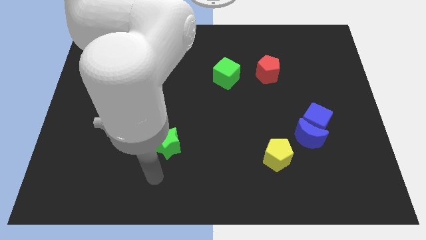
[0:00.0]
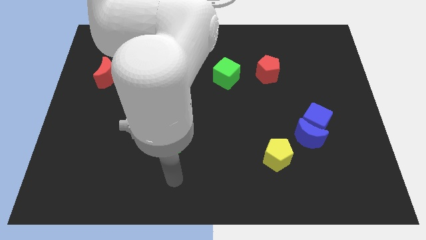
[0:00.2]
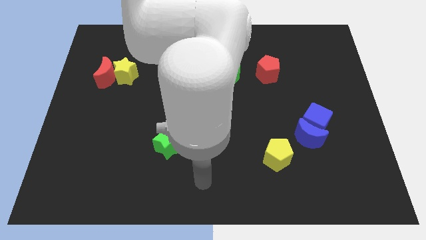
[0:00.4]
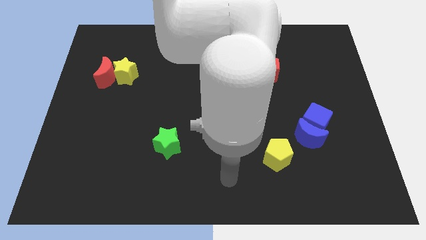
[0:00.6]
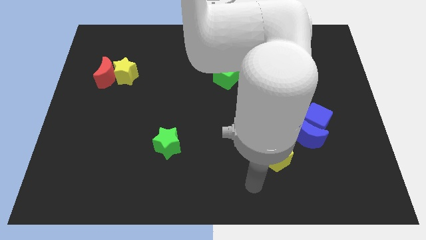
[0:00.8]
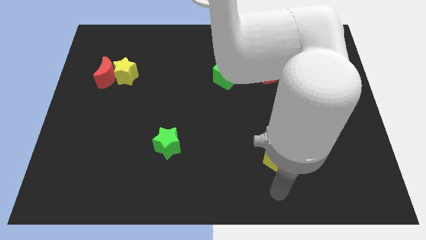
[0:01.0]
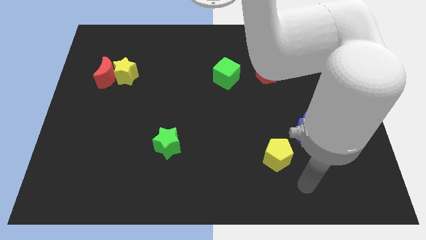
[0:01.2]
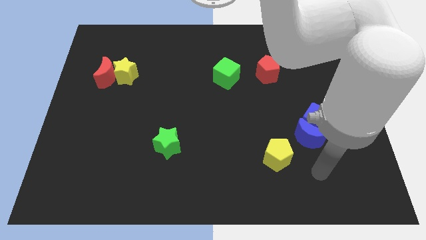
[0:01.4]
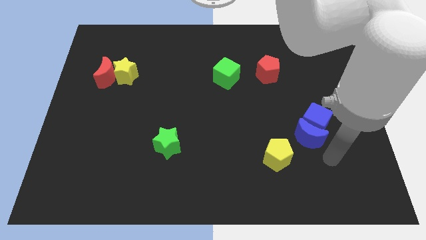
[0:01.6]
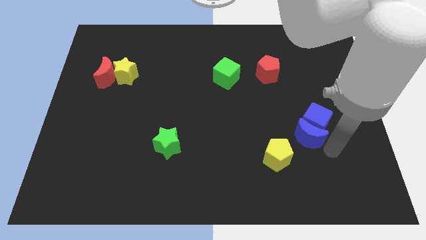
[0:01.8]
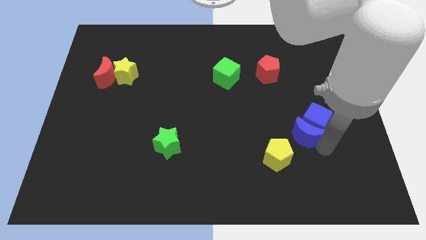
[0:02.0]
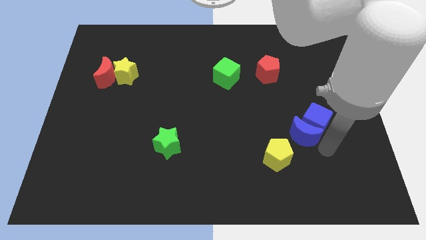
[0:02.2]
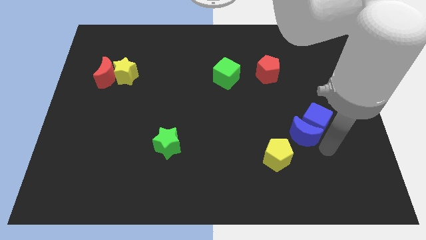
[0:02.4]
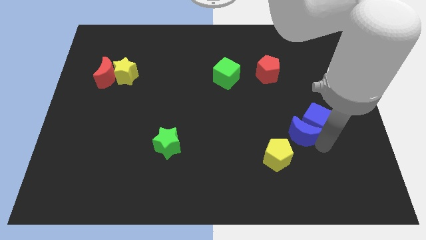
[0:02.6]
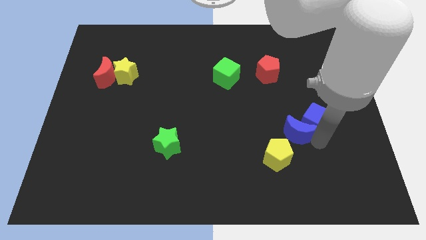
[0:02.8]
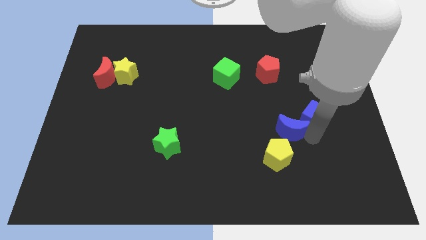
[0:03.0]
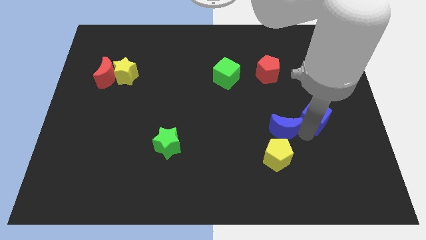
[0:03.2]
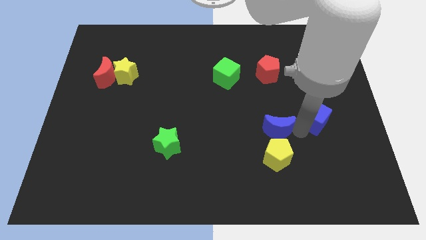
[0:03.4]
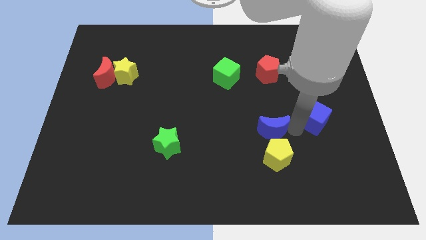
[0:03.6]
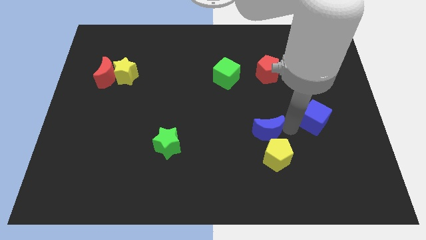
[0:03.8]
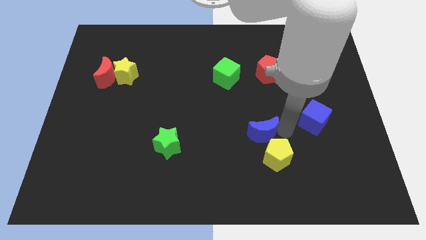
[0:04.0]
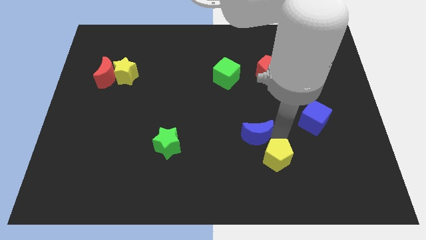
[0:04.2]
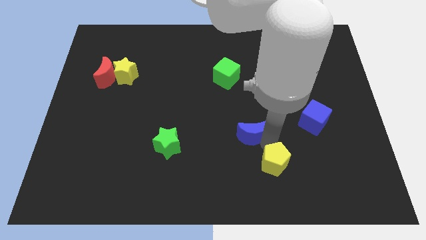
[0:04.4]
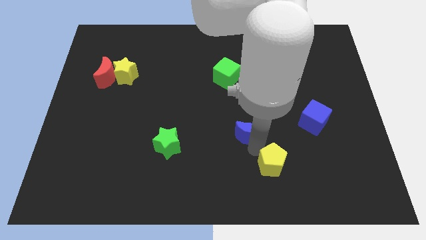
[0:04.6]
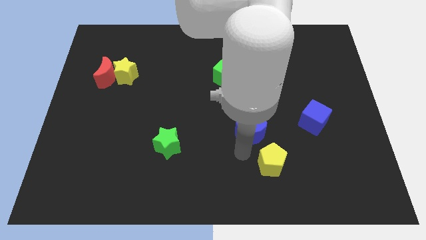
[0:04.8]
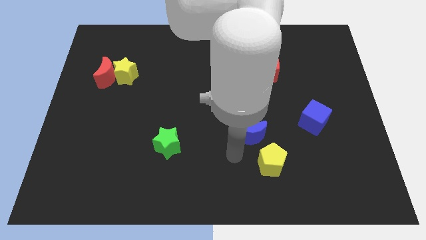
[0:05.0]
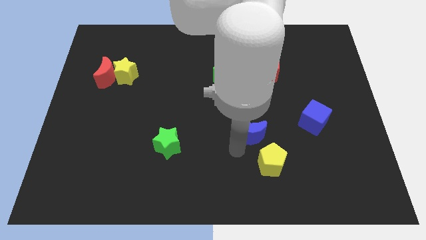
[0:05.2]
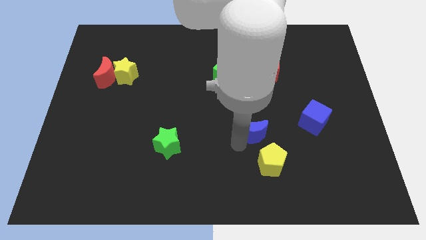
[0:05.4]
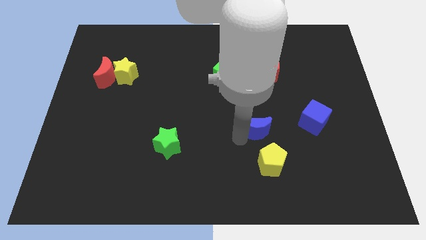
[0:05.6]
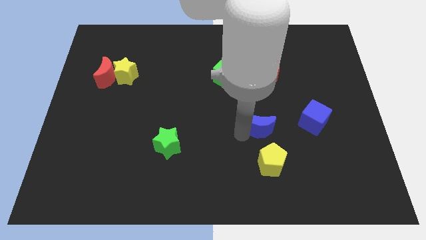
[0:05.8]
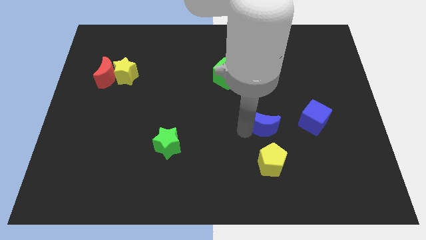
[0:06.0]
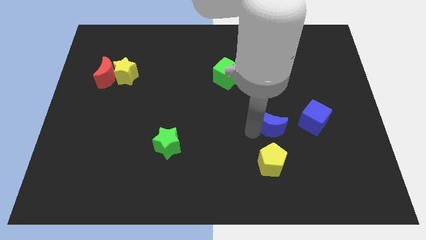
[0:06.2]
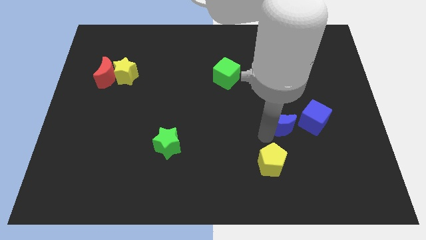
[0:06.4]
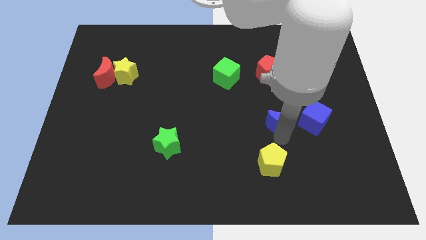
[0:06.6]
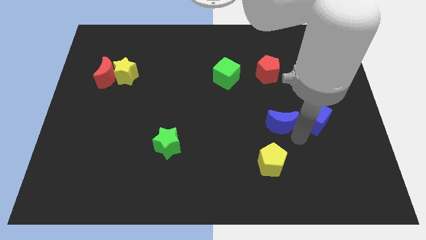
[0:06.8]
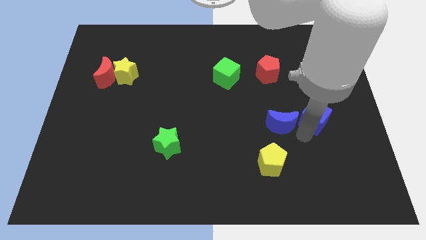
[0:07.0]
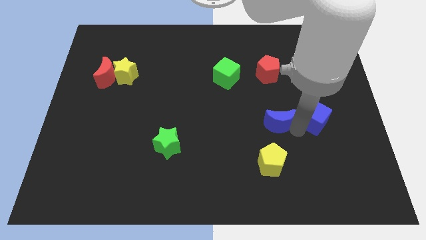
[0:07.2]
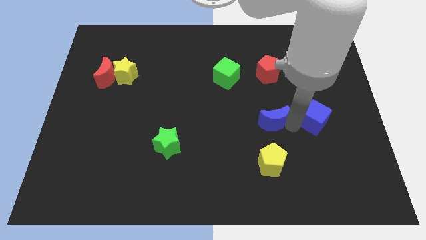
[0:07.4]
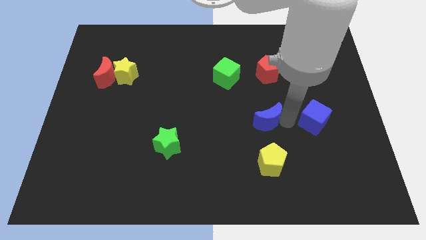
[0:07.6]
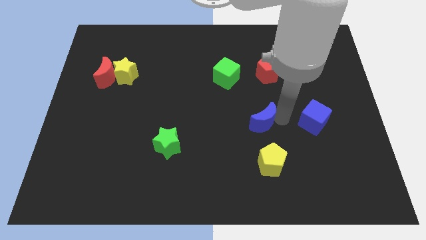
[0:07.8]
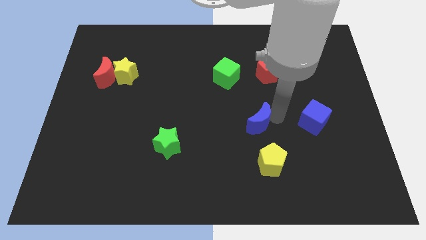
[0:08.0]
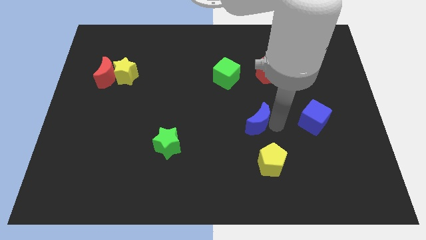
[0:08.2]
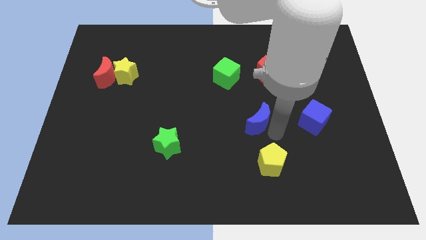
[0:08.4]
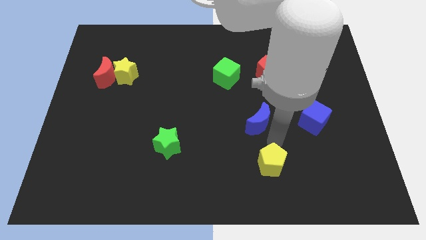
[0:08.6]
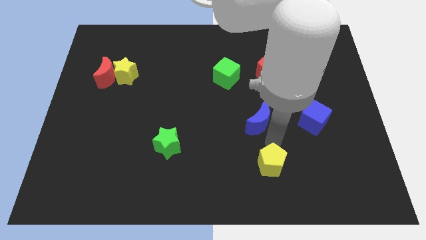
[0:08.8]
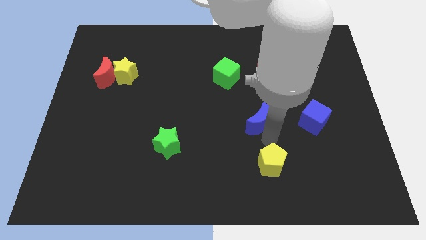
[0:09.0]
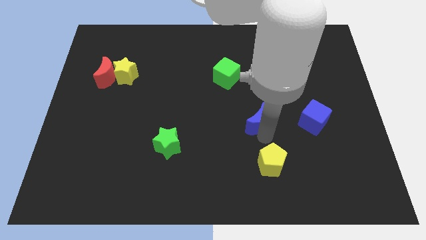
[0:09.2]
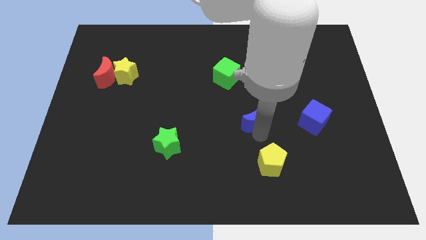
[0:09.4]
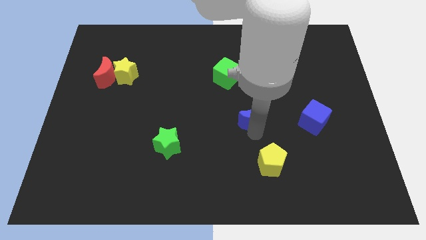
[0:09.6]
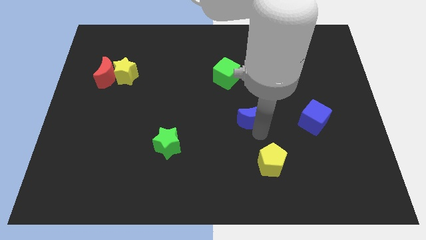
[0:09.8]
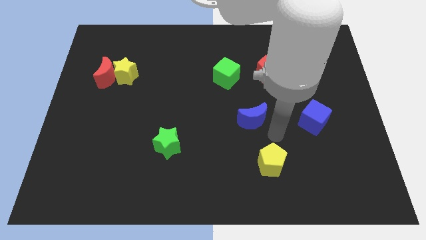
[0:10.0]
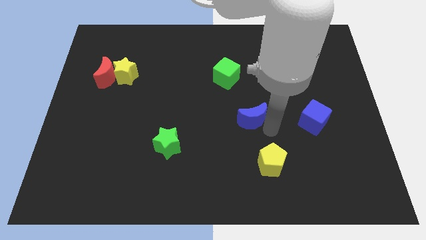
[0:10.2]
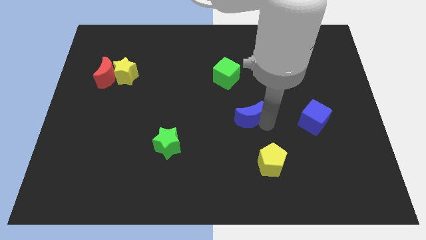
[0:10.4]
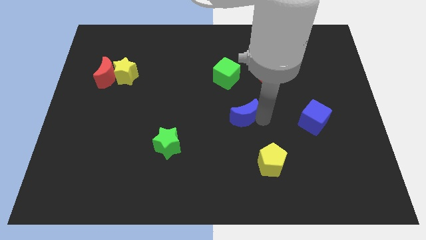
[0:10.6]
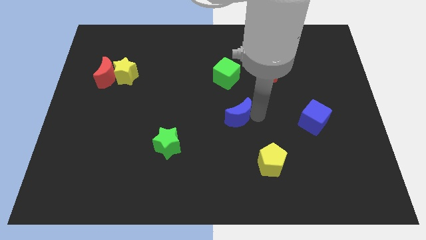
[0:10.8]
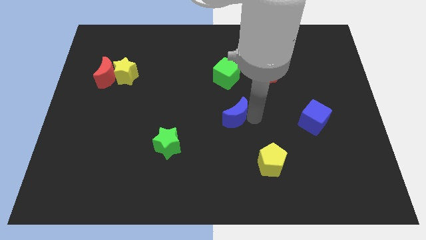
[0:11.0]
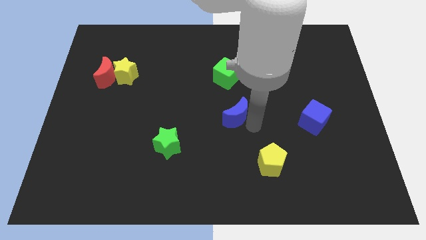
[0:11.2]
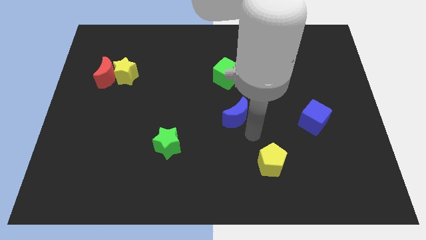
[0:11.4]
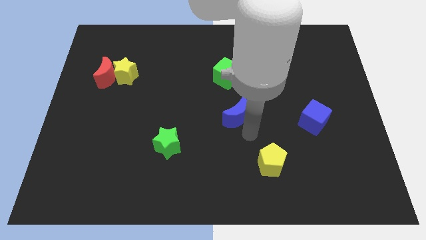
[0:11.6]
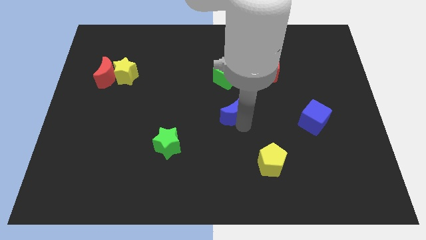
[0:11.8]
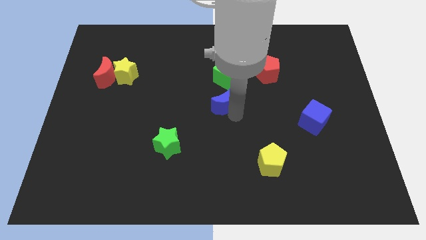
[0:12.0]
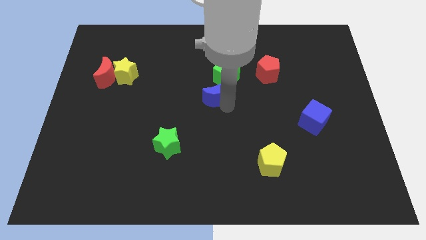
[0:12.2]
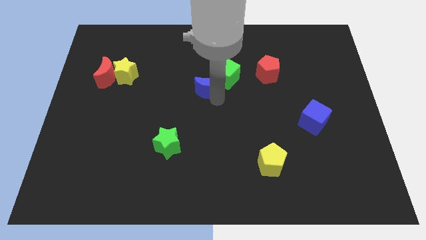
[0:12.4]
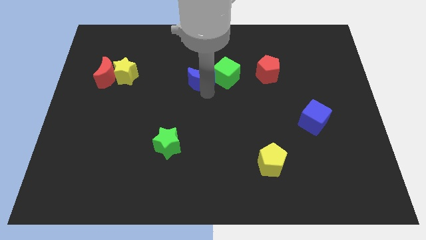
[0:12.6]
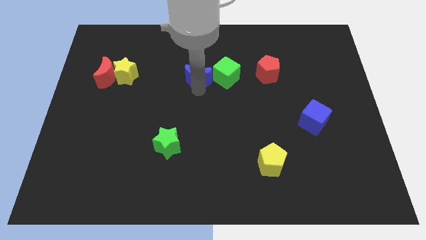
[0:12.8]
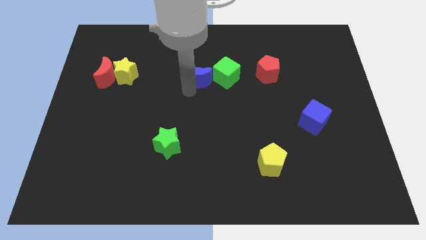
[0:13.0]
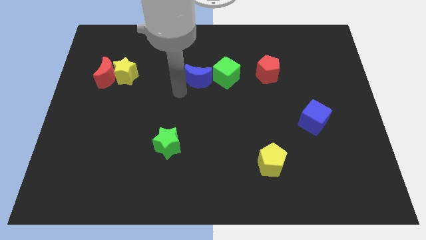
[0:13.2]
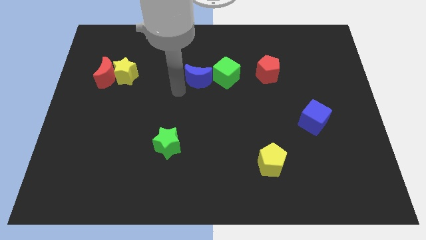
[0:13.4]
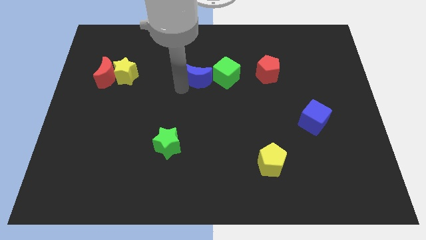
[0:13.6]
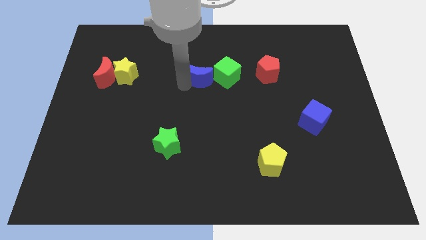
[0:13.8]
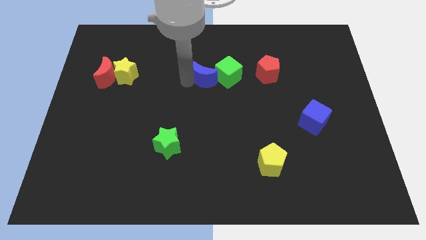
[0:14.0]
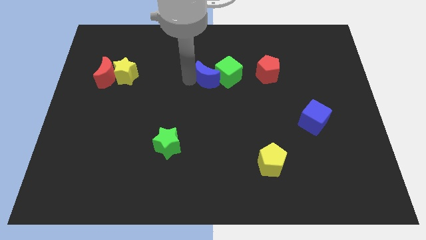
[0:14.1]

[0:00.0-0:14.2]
slide the blue moon to the left of the red pentagon
